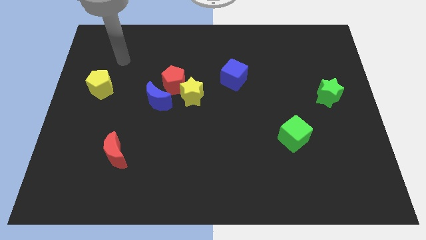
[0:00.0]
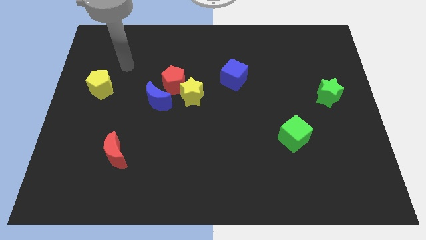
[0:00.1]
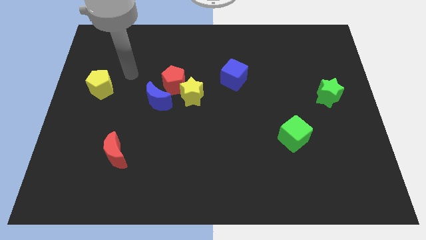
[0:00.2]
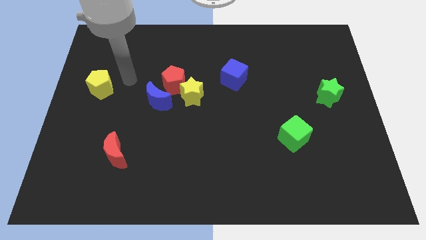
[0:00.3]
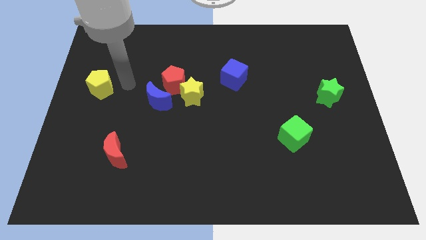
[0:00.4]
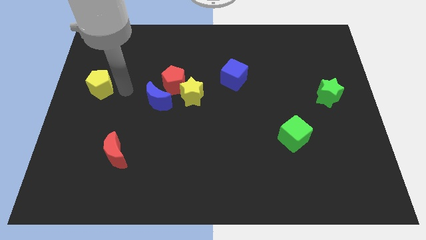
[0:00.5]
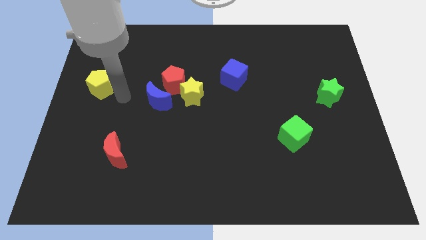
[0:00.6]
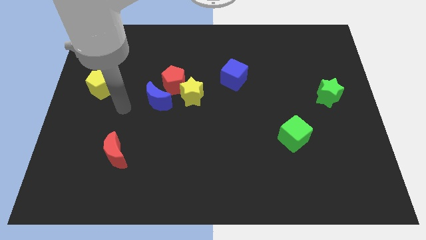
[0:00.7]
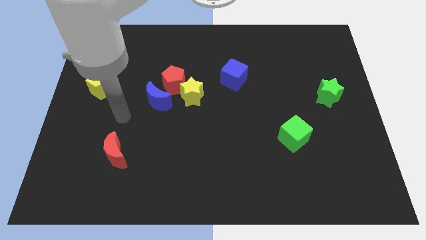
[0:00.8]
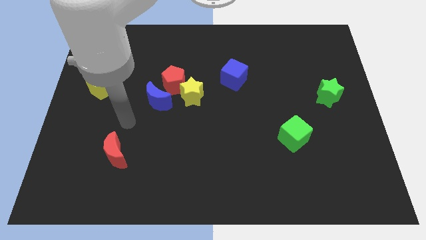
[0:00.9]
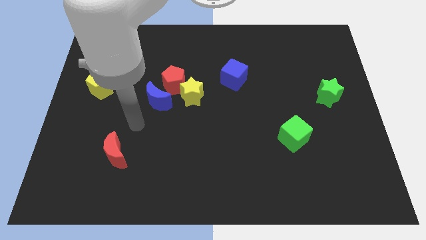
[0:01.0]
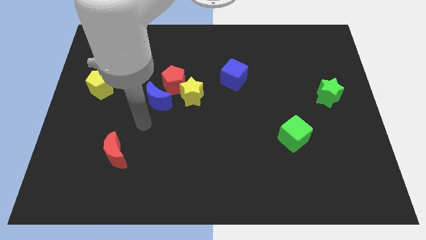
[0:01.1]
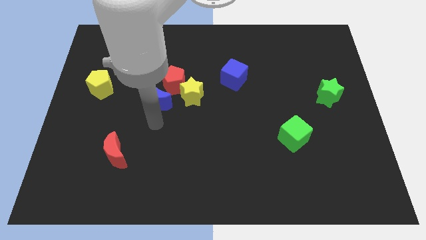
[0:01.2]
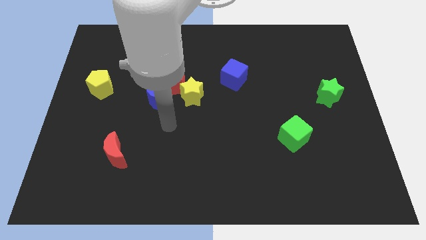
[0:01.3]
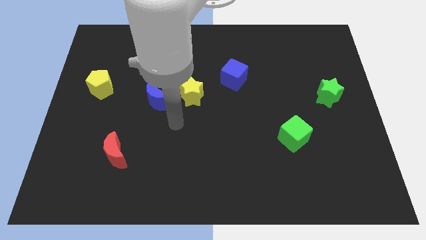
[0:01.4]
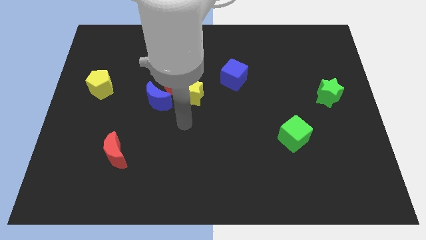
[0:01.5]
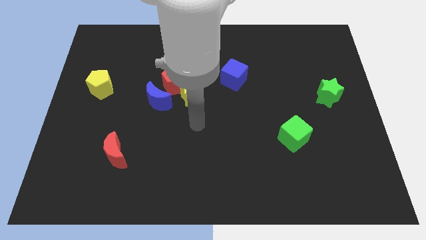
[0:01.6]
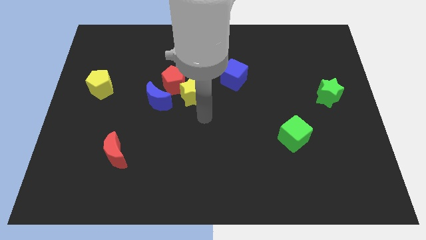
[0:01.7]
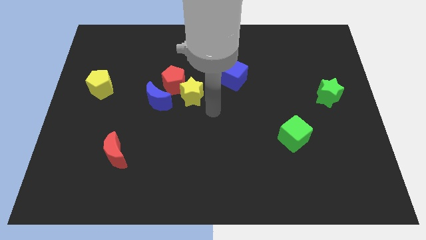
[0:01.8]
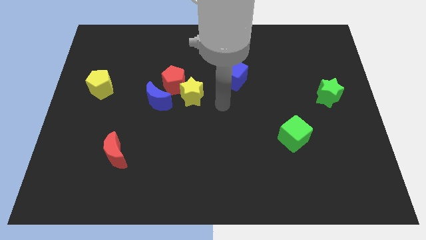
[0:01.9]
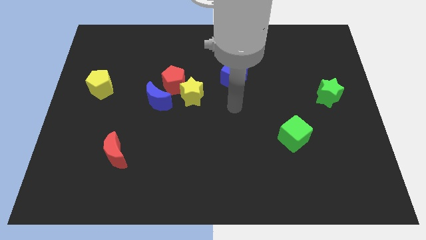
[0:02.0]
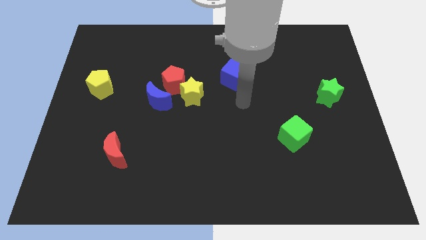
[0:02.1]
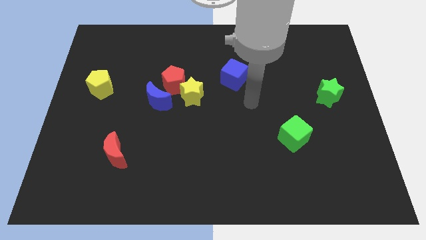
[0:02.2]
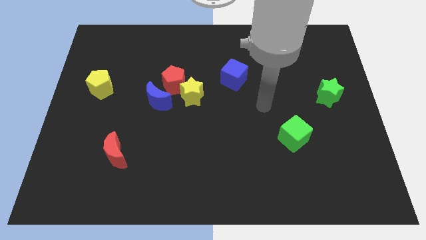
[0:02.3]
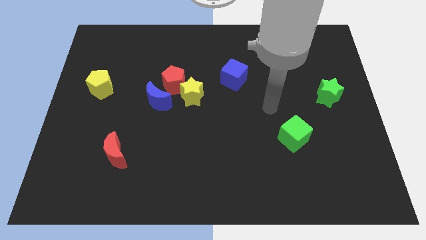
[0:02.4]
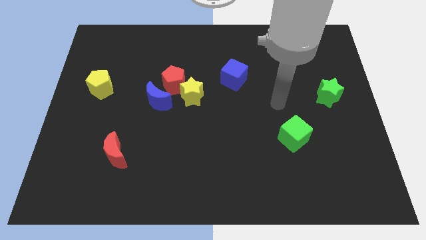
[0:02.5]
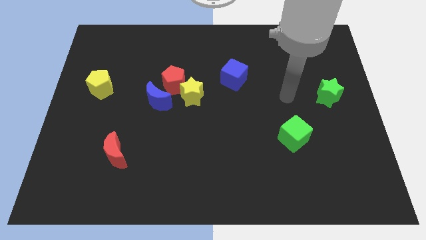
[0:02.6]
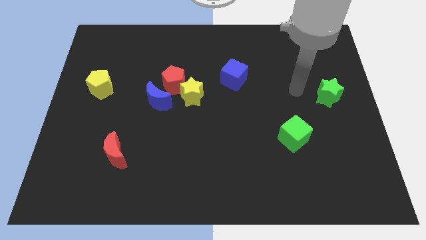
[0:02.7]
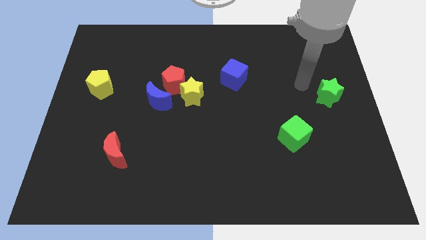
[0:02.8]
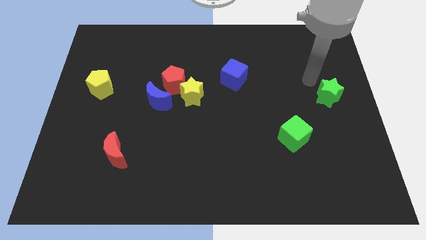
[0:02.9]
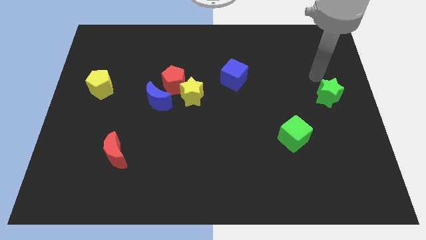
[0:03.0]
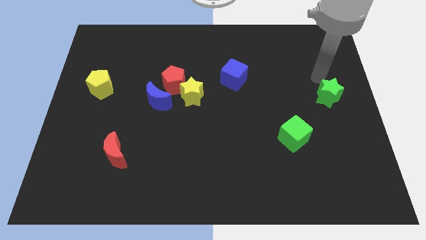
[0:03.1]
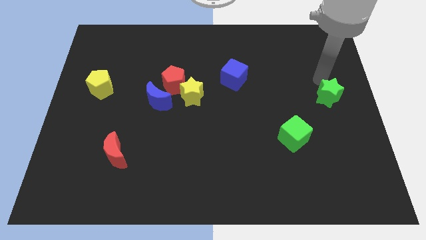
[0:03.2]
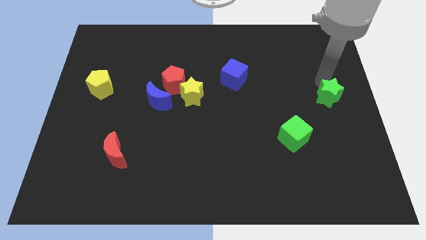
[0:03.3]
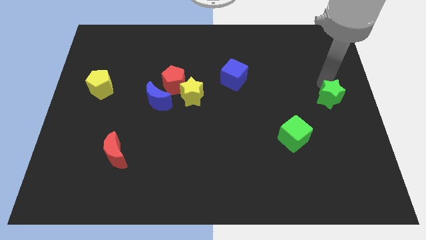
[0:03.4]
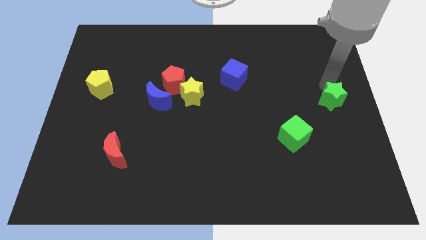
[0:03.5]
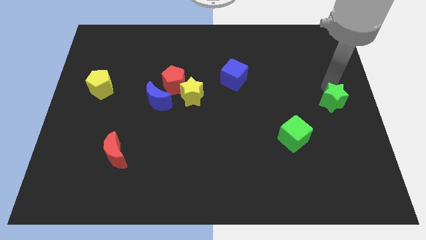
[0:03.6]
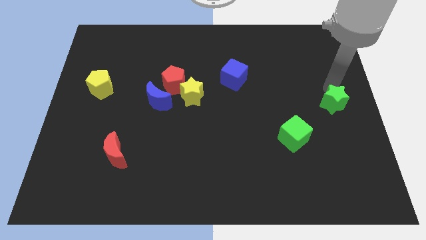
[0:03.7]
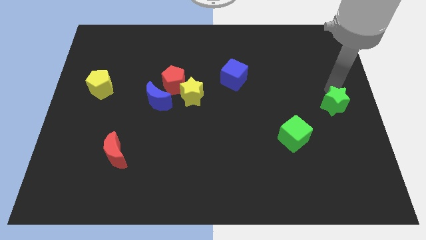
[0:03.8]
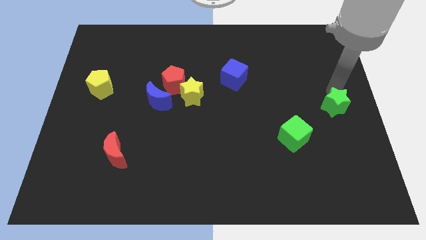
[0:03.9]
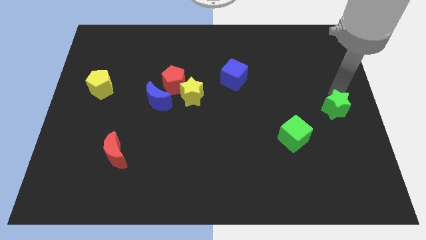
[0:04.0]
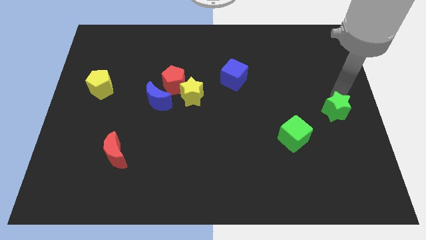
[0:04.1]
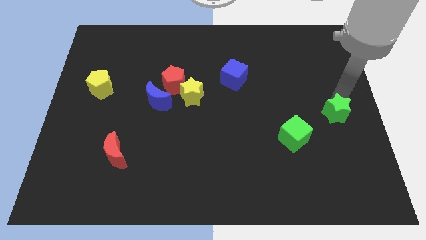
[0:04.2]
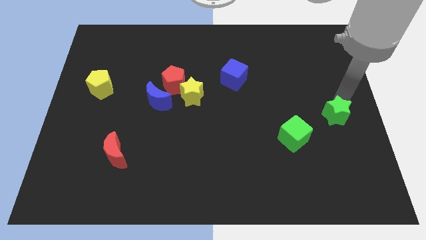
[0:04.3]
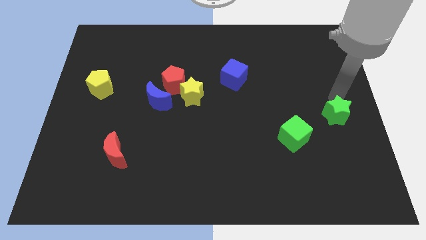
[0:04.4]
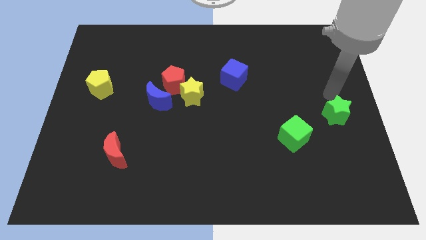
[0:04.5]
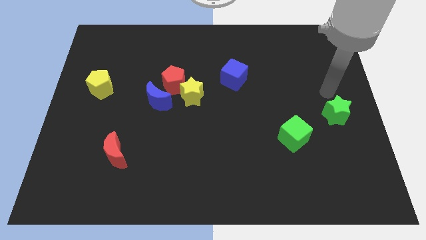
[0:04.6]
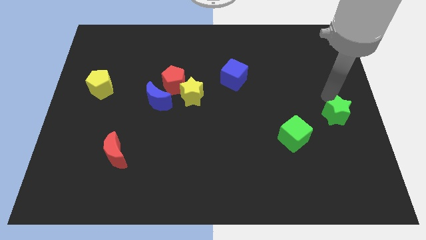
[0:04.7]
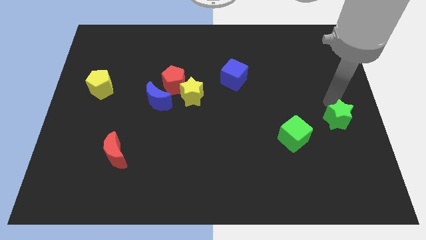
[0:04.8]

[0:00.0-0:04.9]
push the green star downwards somewhat

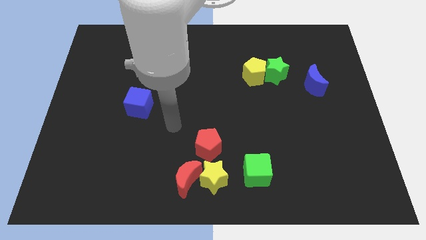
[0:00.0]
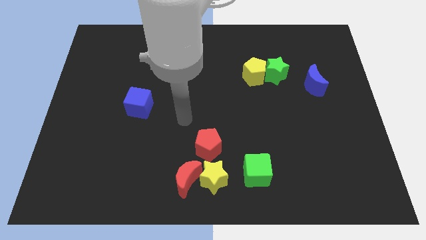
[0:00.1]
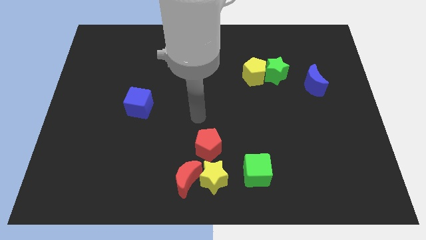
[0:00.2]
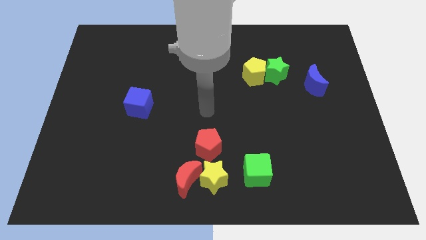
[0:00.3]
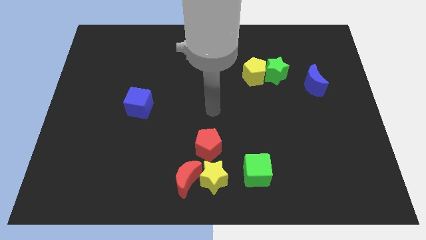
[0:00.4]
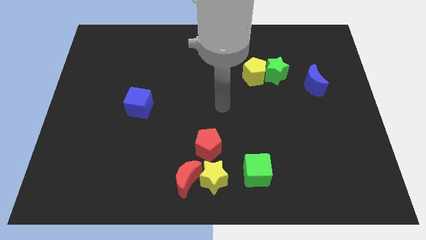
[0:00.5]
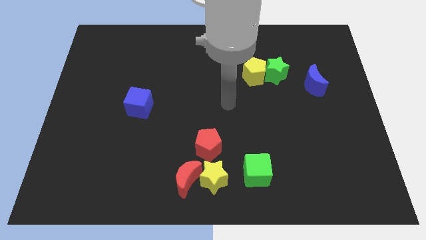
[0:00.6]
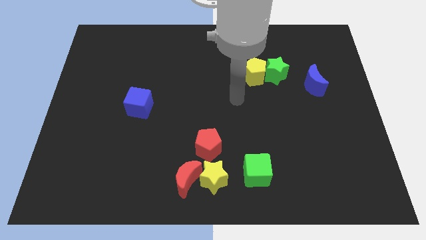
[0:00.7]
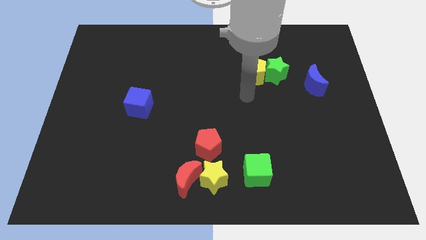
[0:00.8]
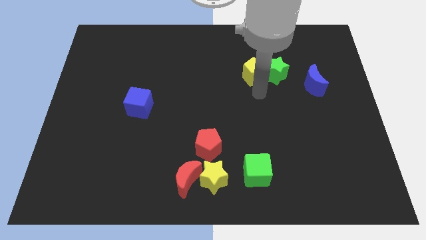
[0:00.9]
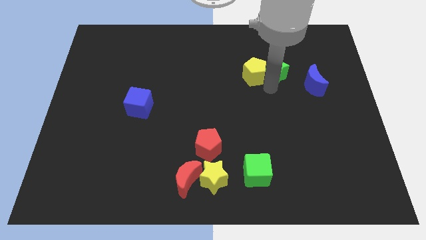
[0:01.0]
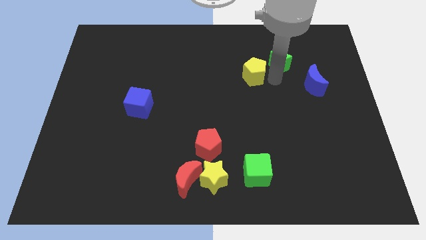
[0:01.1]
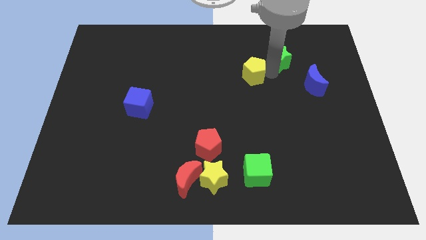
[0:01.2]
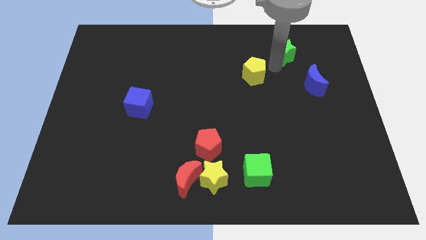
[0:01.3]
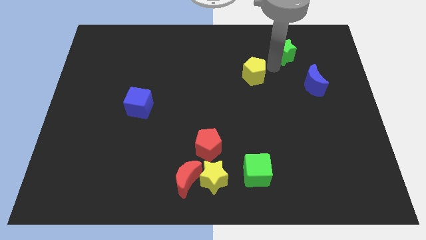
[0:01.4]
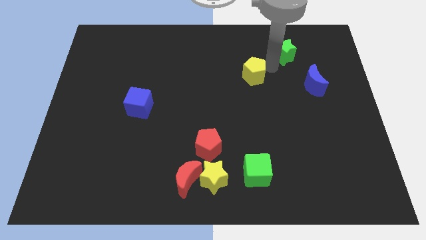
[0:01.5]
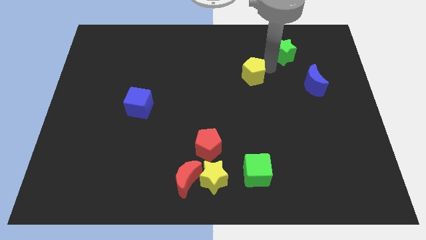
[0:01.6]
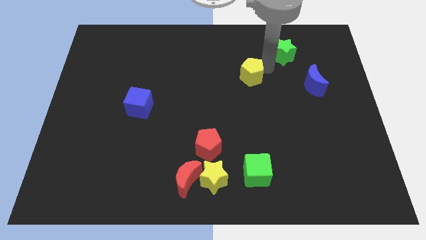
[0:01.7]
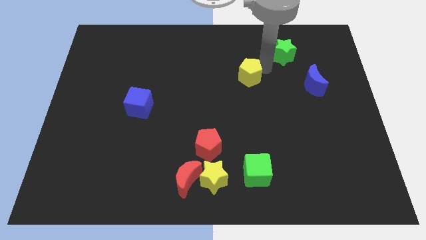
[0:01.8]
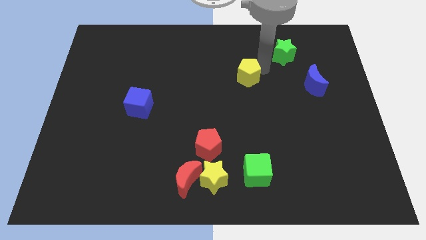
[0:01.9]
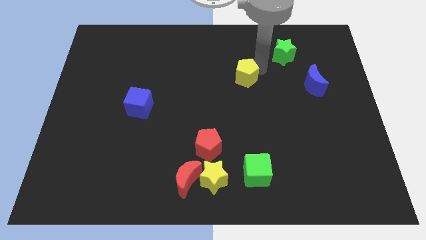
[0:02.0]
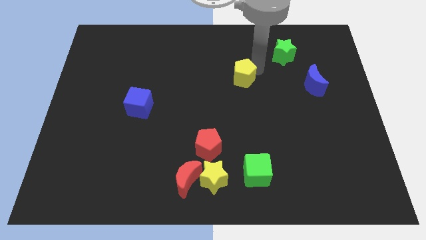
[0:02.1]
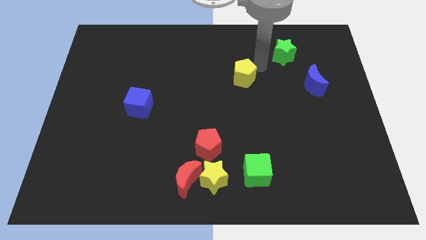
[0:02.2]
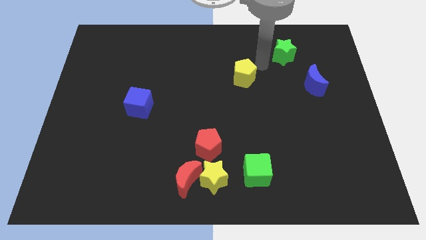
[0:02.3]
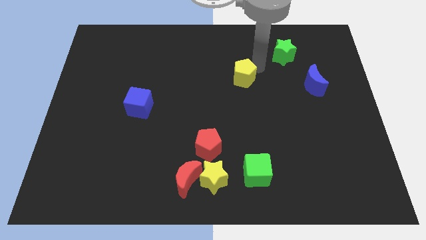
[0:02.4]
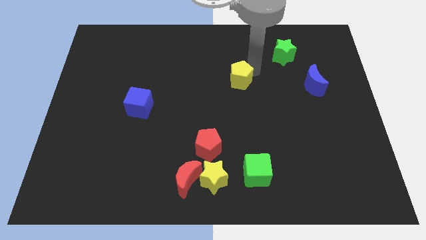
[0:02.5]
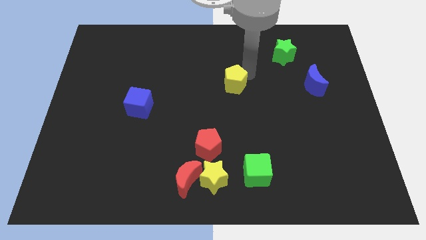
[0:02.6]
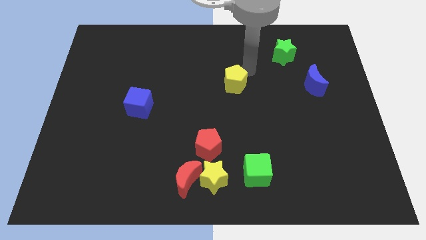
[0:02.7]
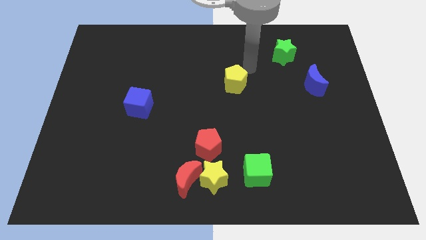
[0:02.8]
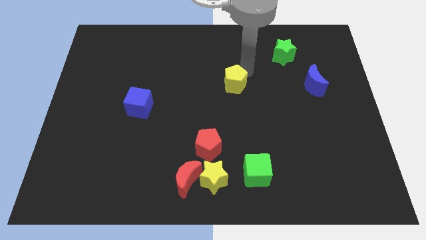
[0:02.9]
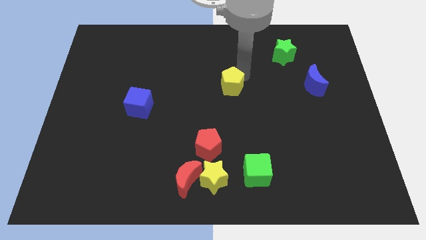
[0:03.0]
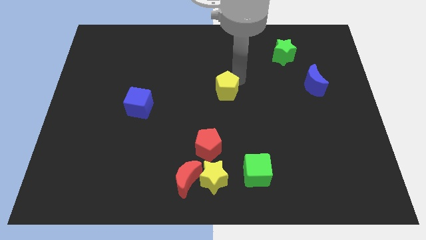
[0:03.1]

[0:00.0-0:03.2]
slide the yellow pentagon down and then left a little
